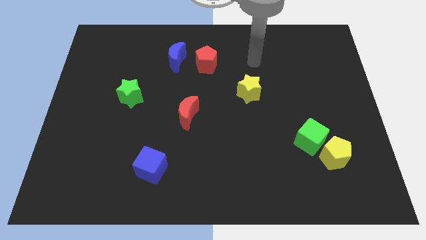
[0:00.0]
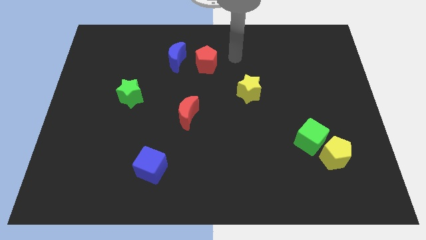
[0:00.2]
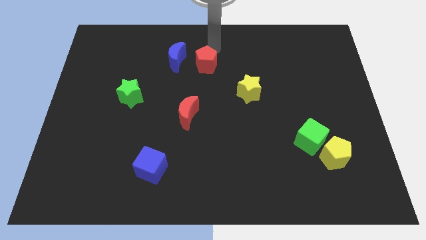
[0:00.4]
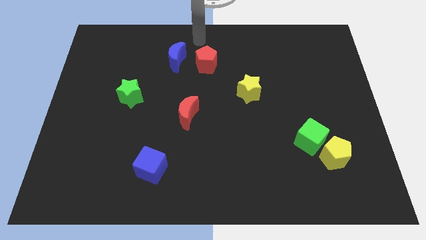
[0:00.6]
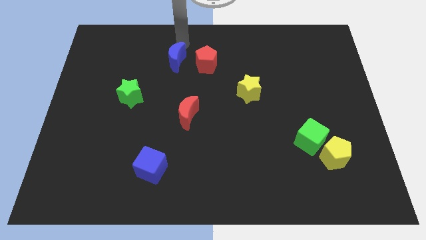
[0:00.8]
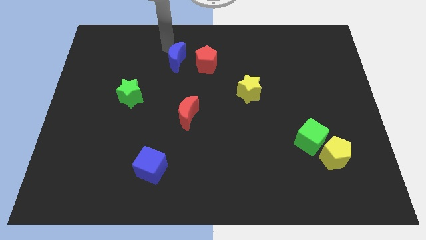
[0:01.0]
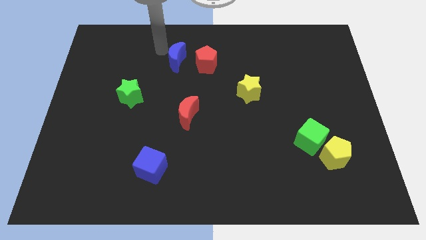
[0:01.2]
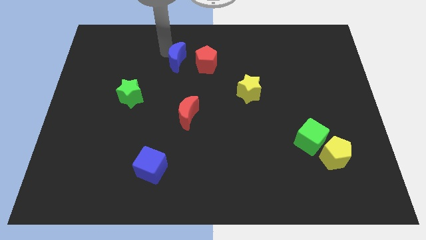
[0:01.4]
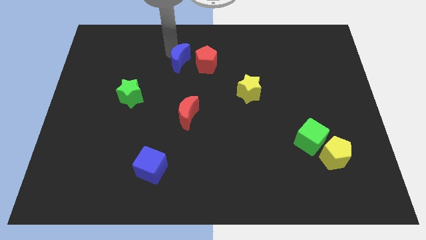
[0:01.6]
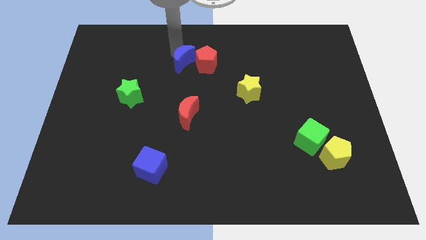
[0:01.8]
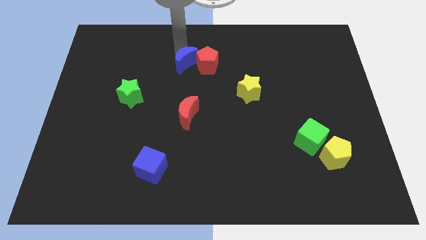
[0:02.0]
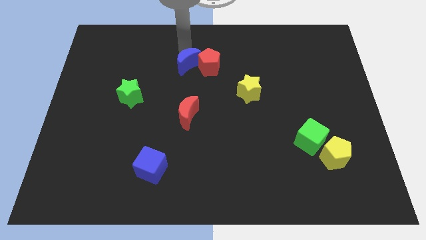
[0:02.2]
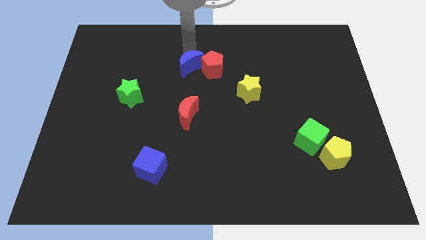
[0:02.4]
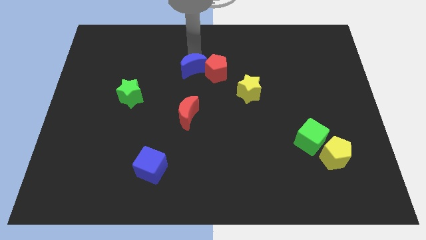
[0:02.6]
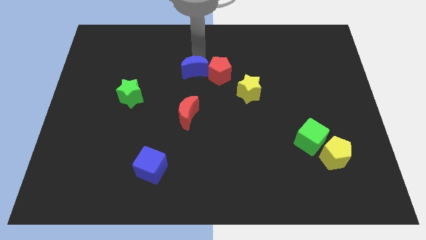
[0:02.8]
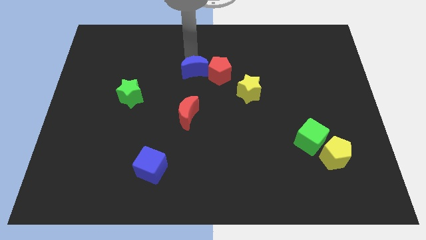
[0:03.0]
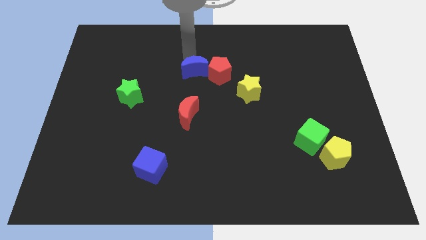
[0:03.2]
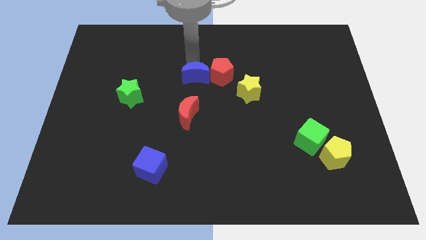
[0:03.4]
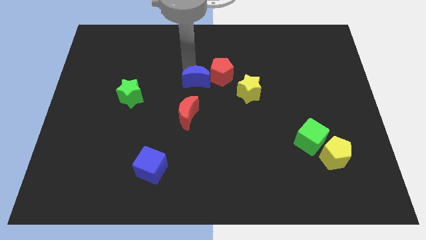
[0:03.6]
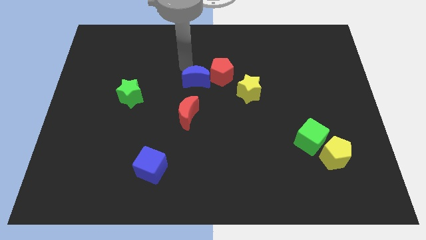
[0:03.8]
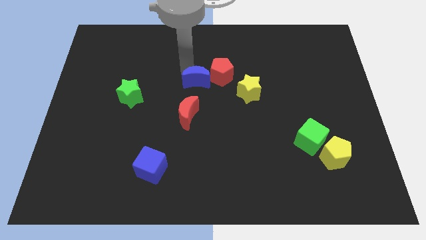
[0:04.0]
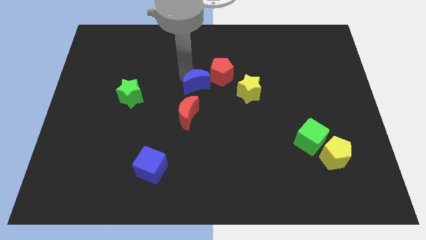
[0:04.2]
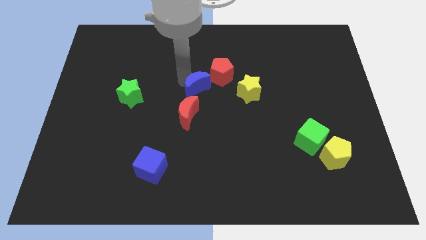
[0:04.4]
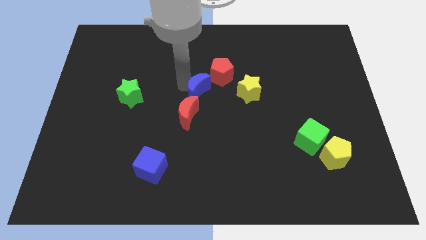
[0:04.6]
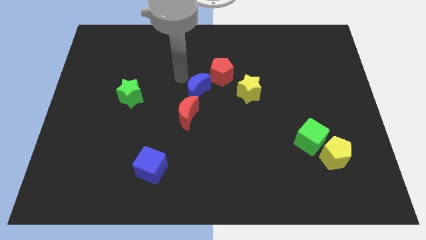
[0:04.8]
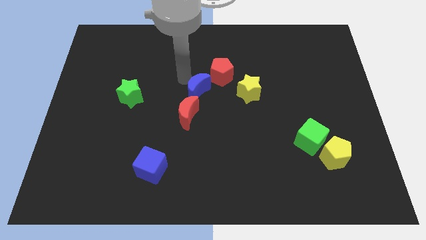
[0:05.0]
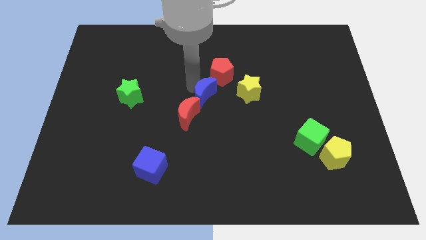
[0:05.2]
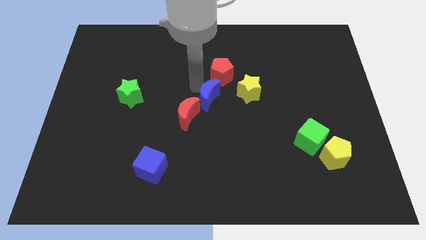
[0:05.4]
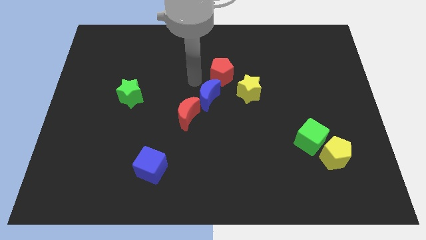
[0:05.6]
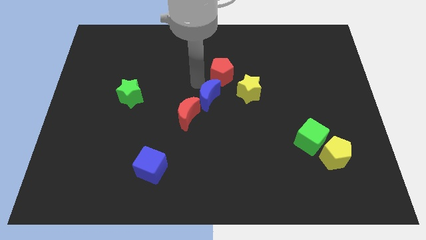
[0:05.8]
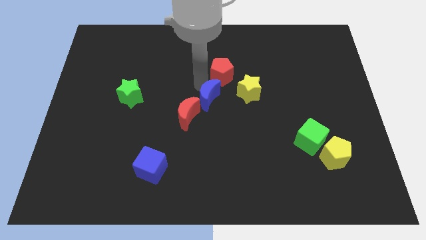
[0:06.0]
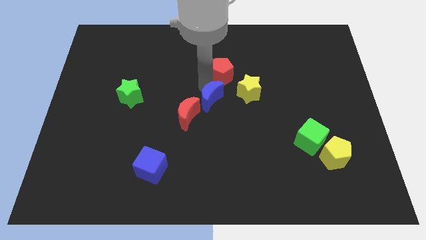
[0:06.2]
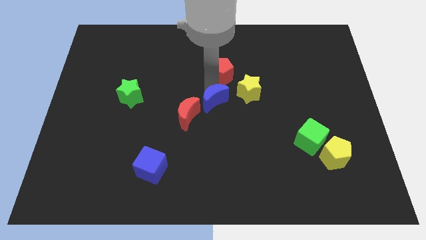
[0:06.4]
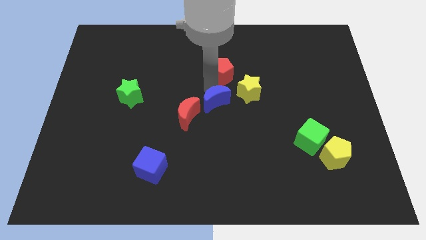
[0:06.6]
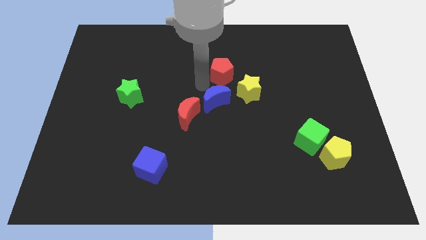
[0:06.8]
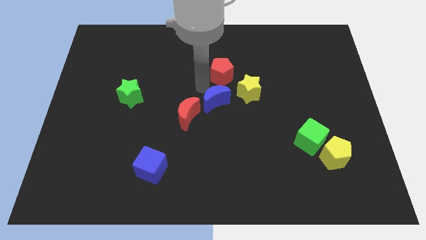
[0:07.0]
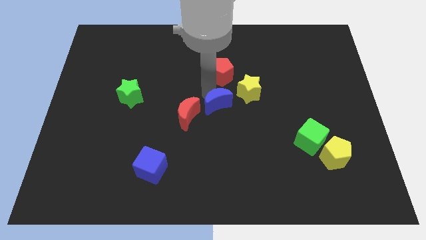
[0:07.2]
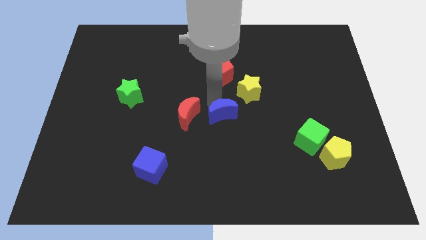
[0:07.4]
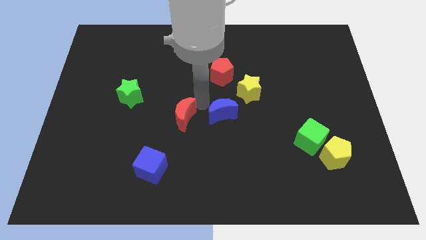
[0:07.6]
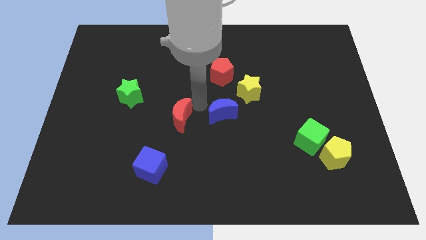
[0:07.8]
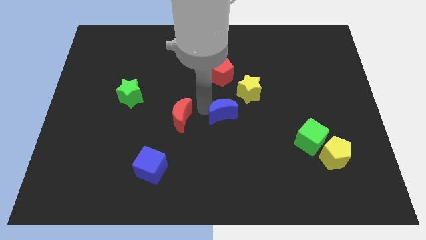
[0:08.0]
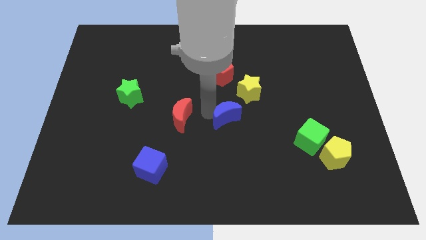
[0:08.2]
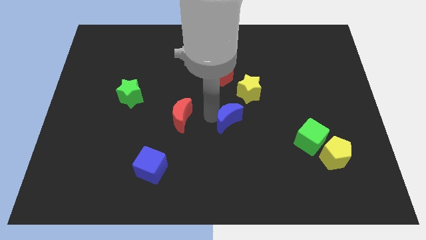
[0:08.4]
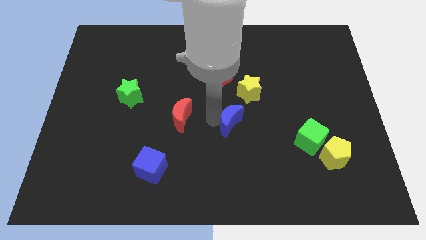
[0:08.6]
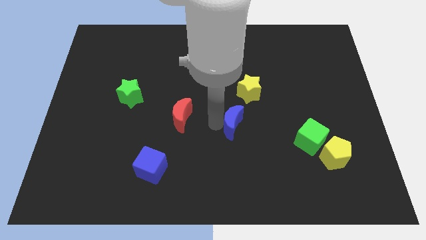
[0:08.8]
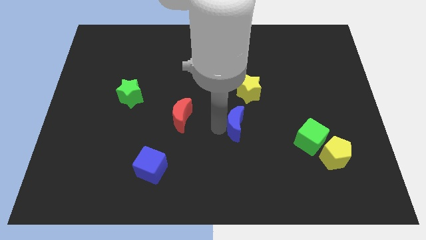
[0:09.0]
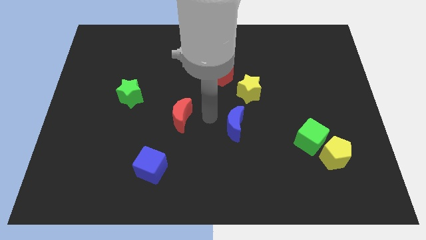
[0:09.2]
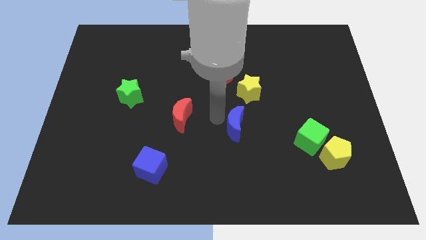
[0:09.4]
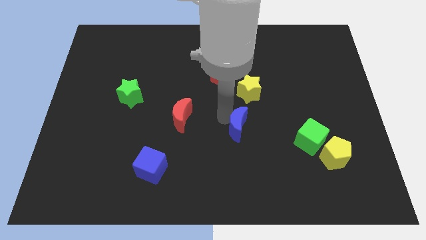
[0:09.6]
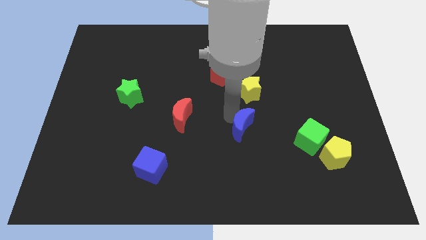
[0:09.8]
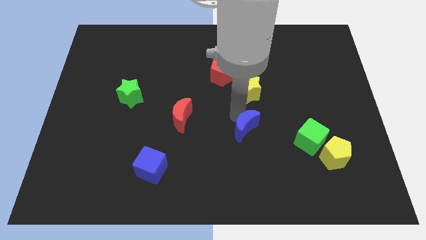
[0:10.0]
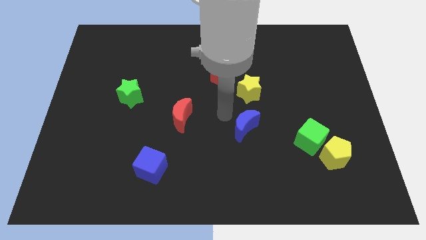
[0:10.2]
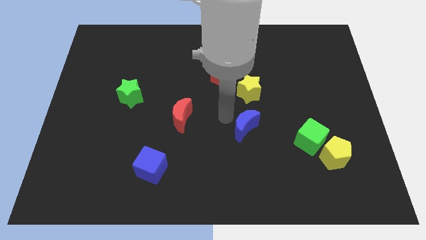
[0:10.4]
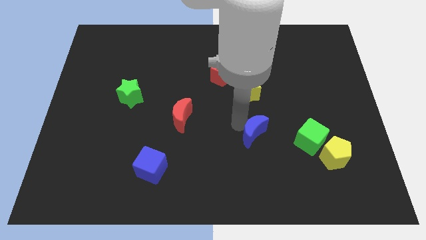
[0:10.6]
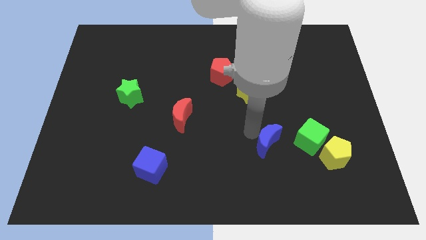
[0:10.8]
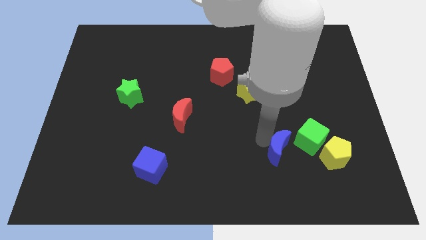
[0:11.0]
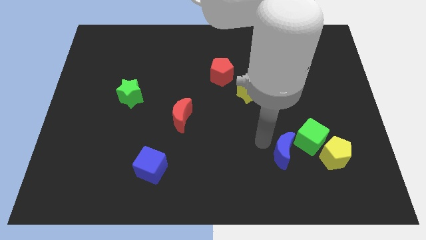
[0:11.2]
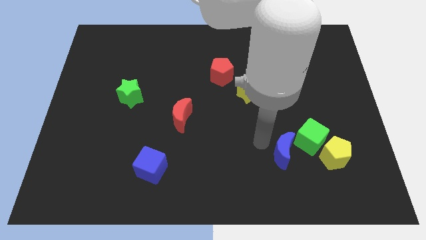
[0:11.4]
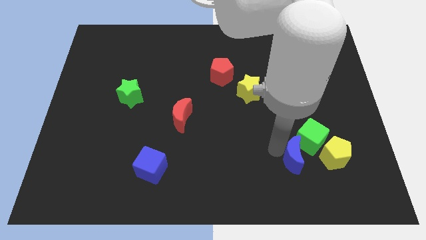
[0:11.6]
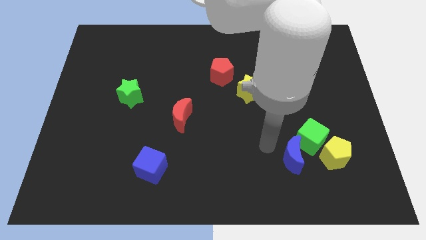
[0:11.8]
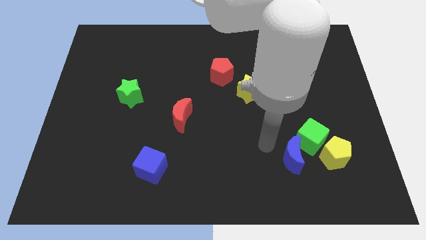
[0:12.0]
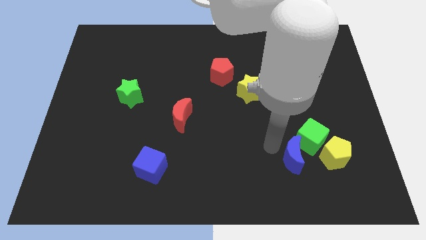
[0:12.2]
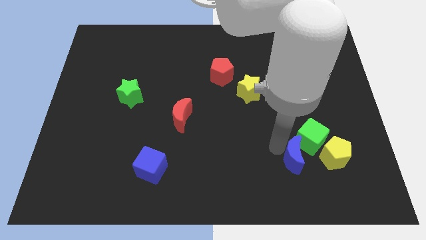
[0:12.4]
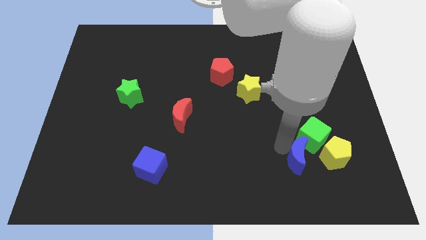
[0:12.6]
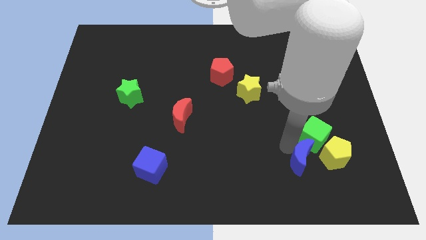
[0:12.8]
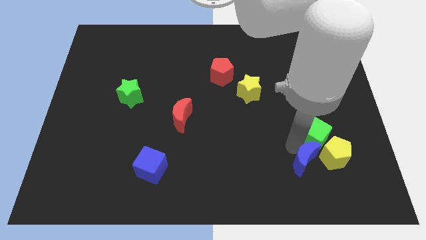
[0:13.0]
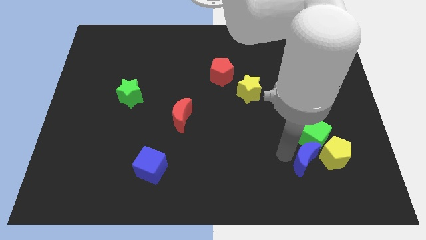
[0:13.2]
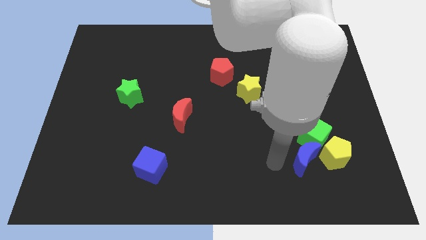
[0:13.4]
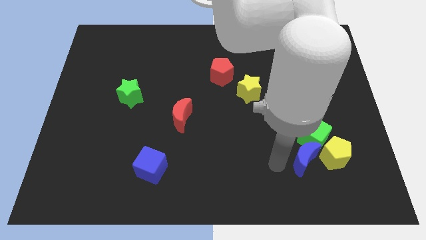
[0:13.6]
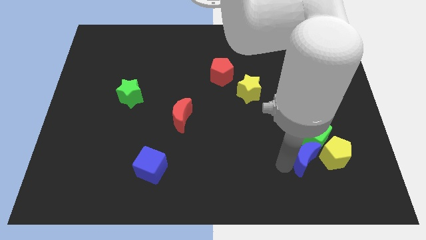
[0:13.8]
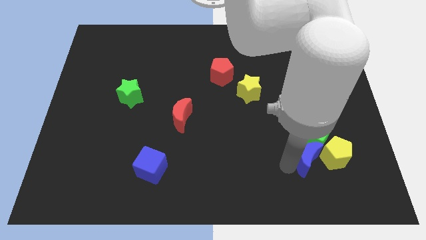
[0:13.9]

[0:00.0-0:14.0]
put the blue moon to the yellow pentagon

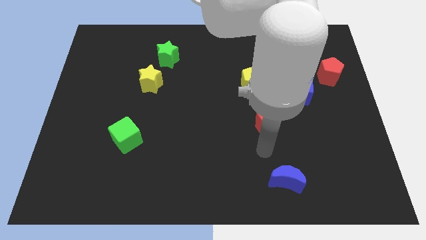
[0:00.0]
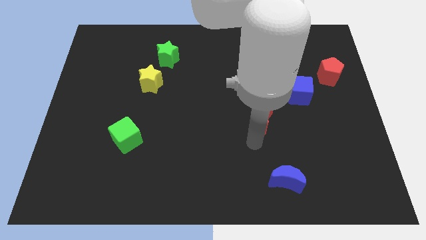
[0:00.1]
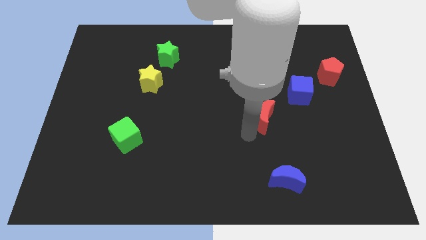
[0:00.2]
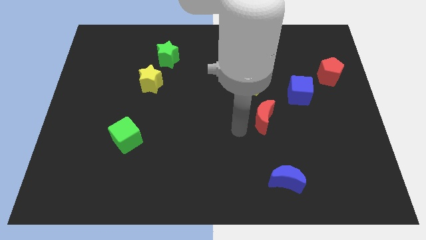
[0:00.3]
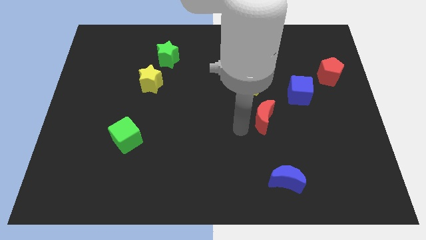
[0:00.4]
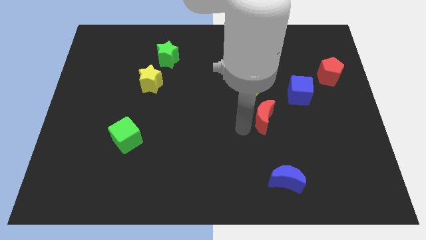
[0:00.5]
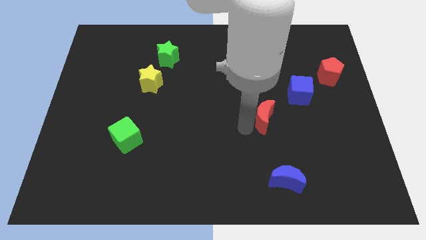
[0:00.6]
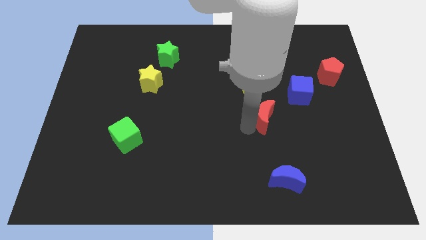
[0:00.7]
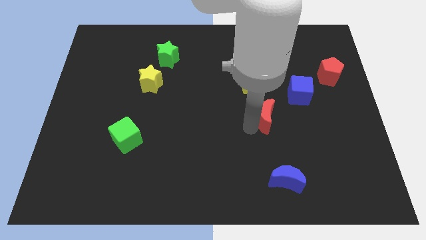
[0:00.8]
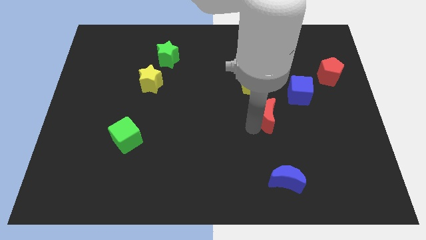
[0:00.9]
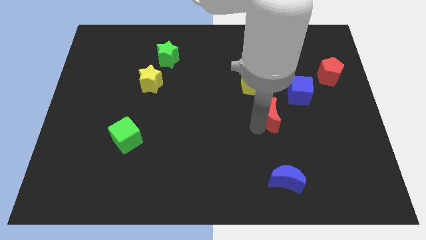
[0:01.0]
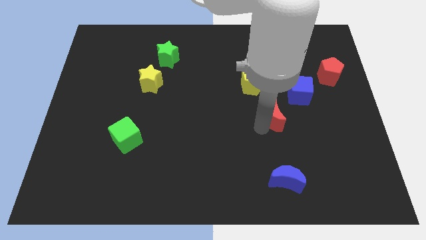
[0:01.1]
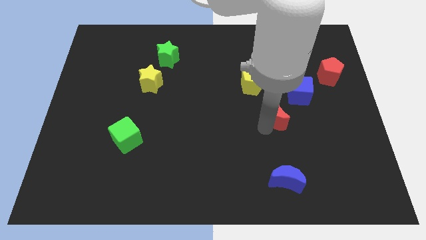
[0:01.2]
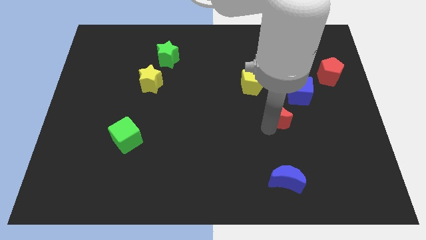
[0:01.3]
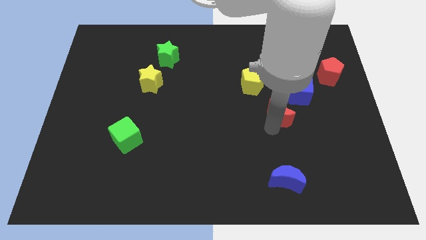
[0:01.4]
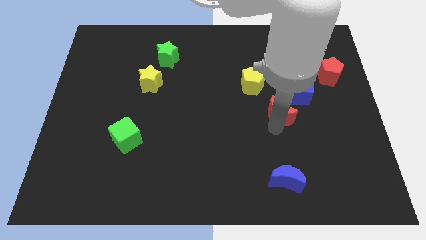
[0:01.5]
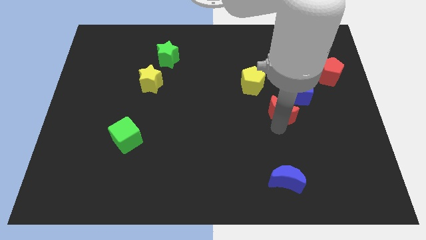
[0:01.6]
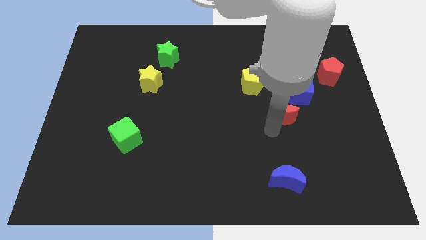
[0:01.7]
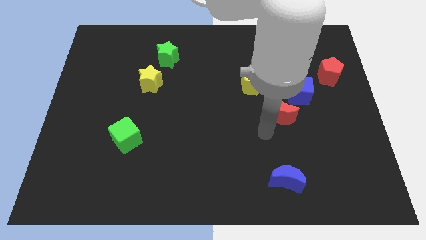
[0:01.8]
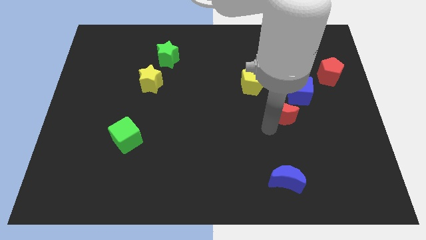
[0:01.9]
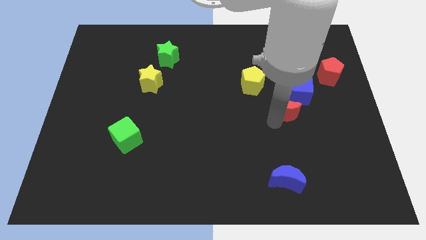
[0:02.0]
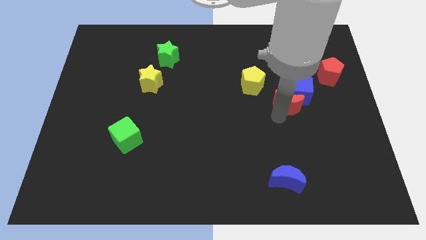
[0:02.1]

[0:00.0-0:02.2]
move the red moon towards the blue cube
